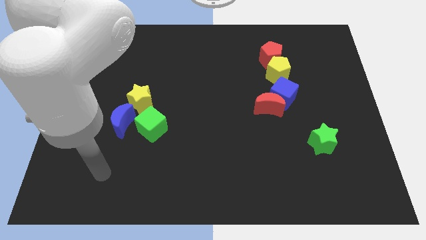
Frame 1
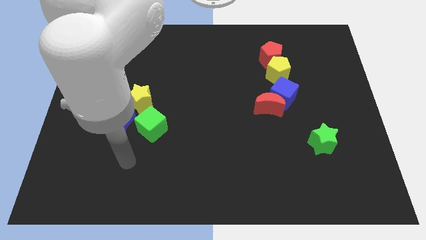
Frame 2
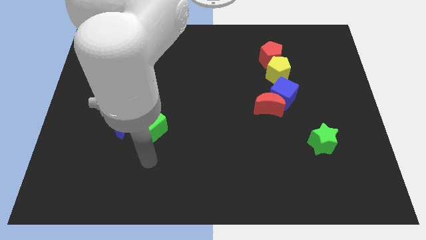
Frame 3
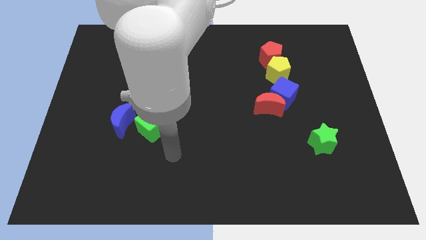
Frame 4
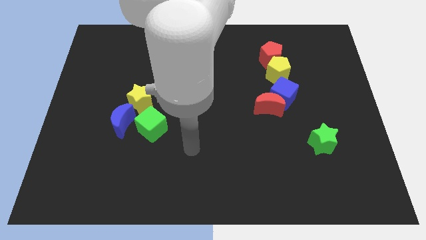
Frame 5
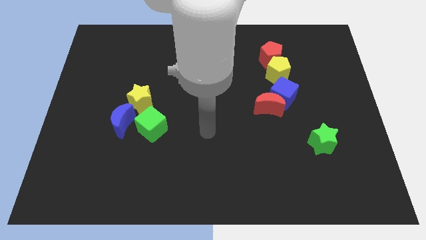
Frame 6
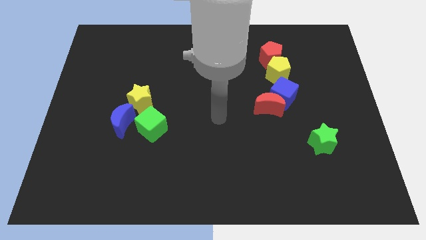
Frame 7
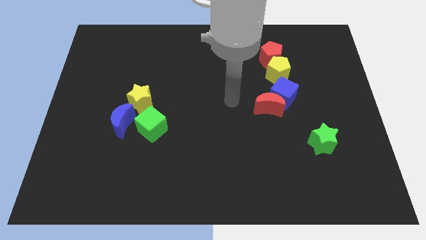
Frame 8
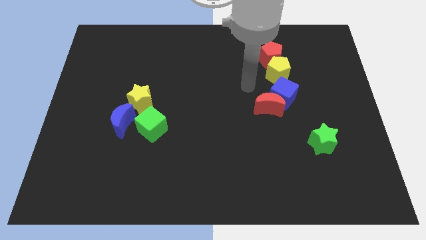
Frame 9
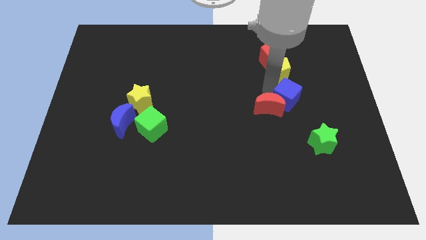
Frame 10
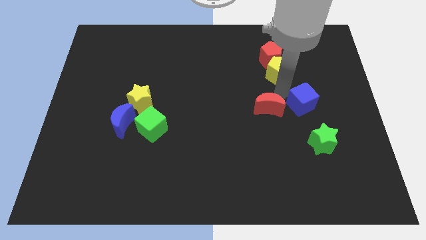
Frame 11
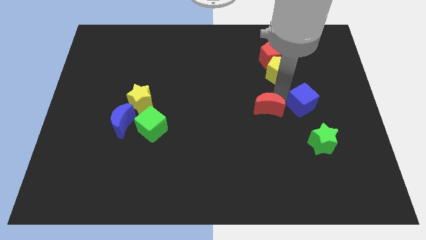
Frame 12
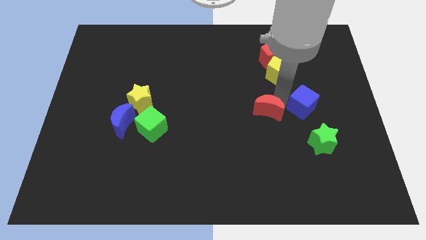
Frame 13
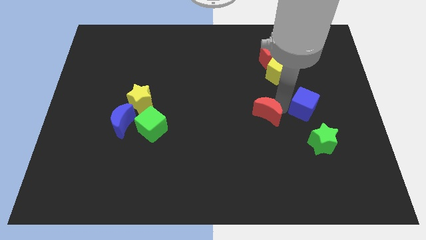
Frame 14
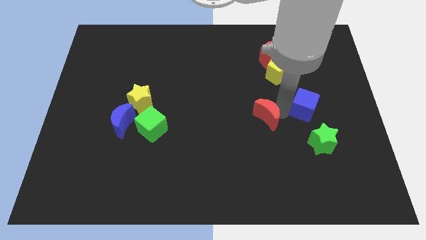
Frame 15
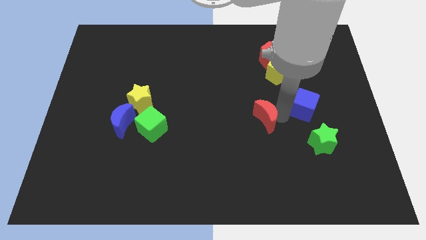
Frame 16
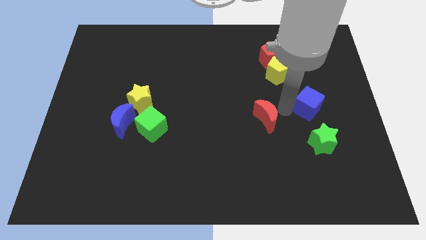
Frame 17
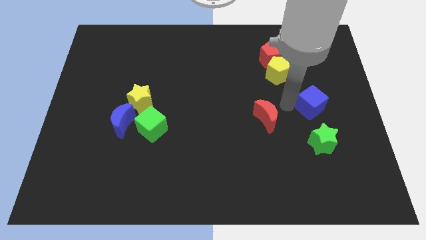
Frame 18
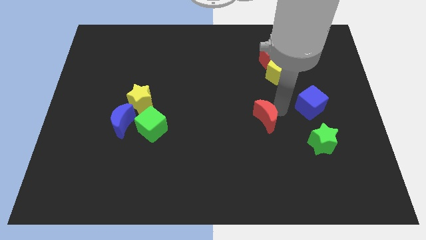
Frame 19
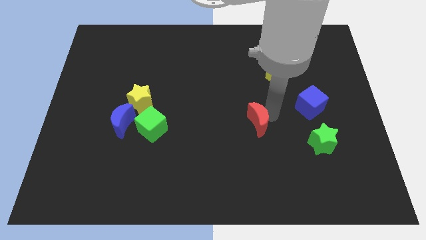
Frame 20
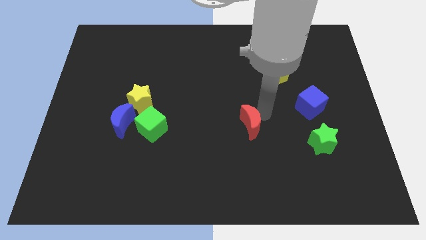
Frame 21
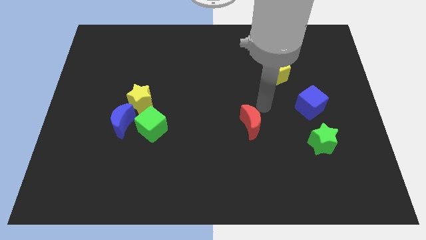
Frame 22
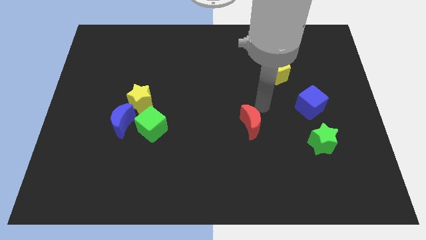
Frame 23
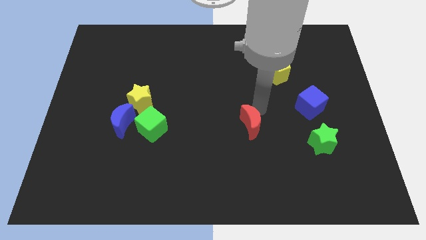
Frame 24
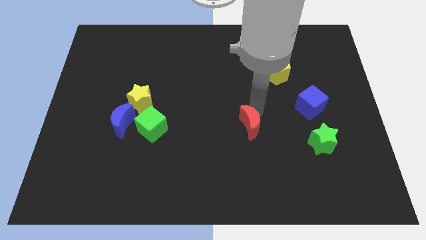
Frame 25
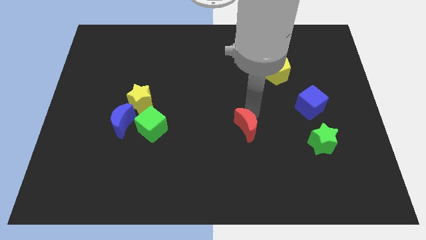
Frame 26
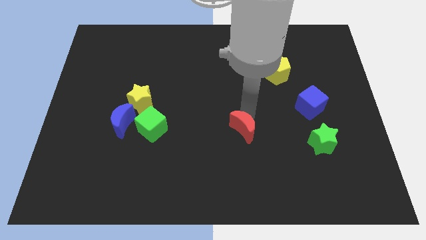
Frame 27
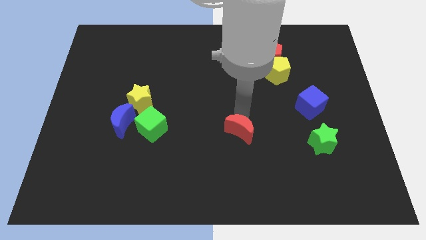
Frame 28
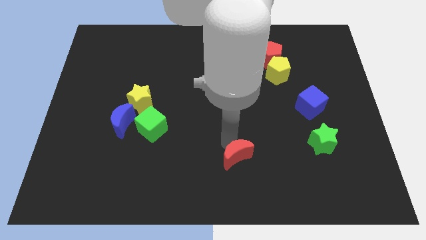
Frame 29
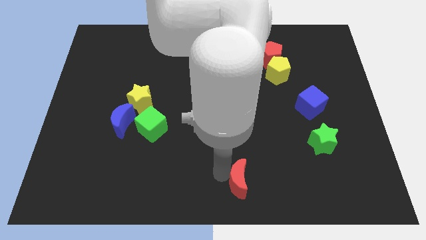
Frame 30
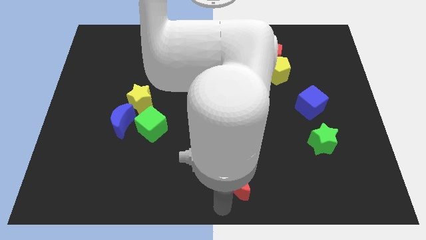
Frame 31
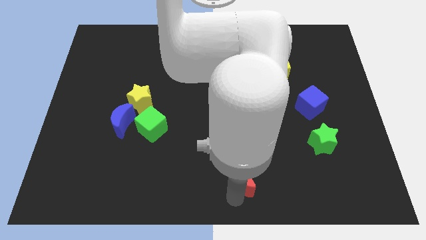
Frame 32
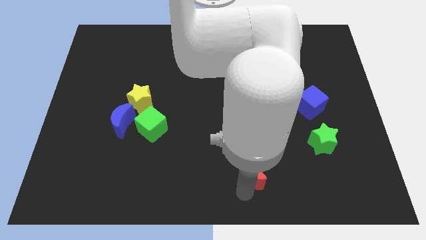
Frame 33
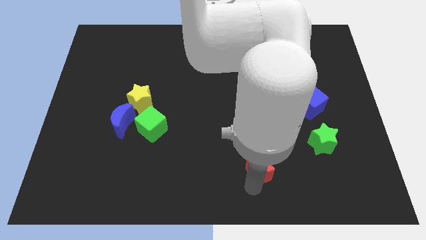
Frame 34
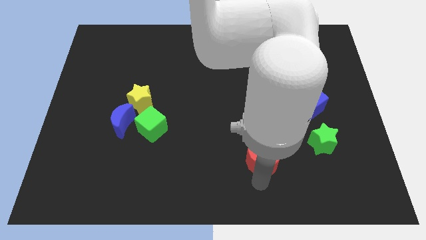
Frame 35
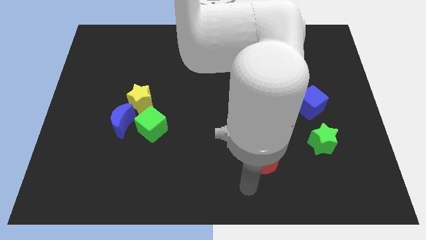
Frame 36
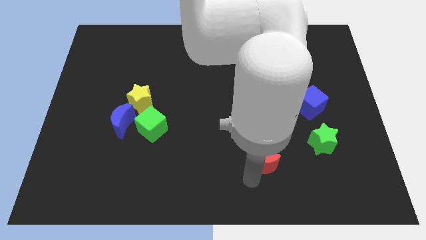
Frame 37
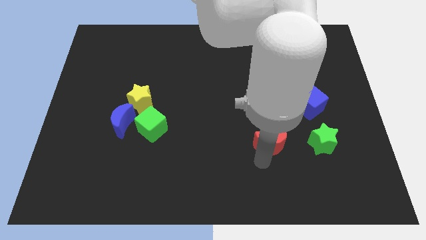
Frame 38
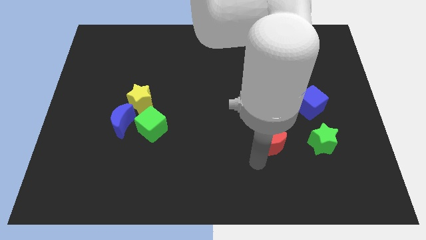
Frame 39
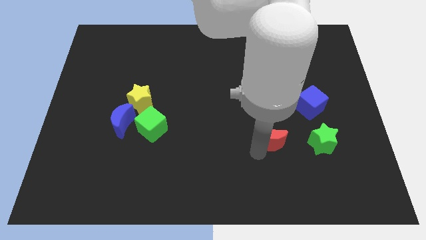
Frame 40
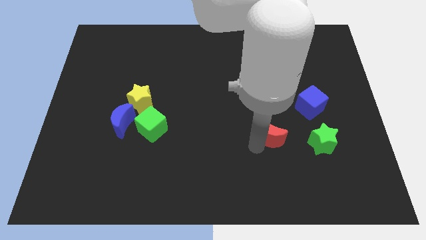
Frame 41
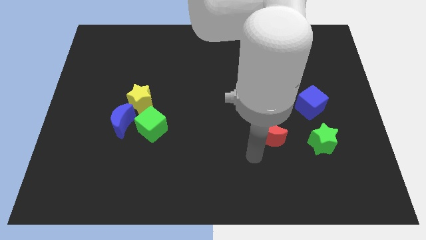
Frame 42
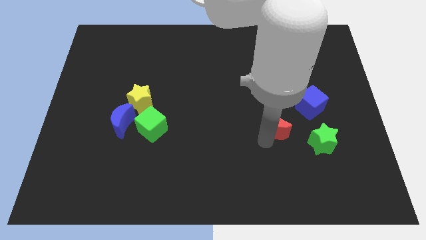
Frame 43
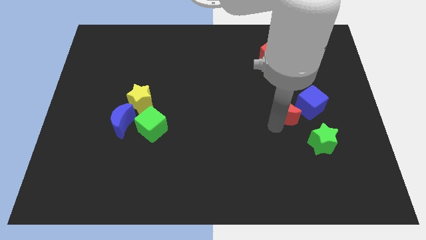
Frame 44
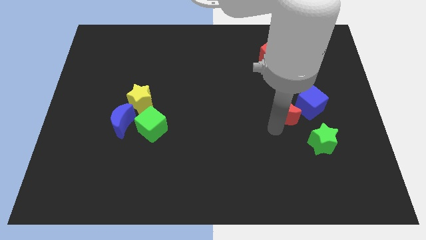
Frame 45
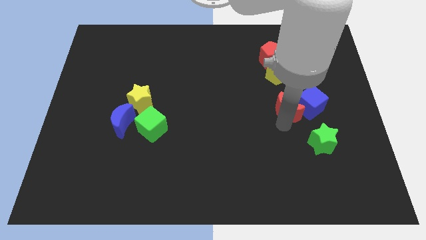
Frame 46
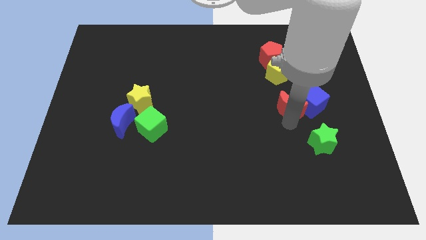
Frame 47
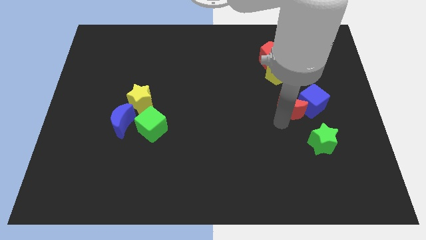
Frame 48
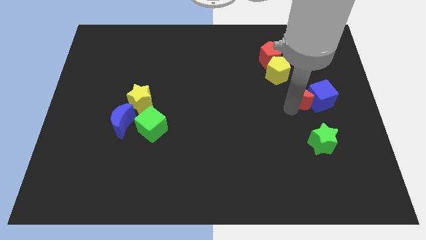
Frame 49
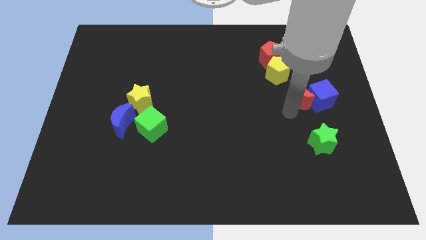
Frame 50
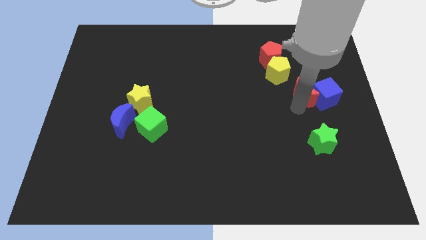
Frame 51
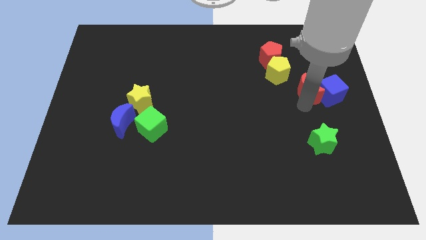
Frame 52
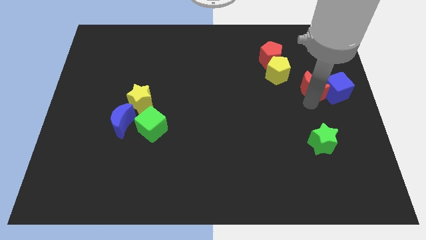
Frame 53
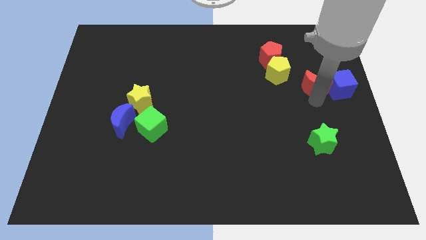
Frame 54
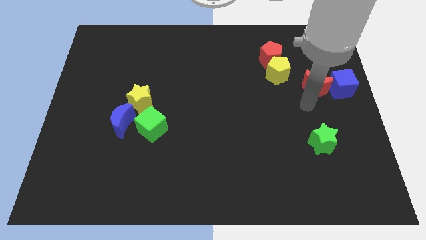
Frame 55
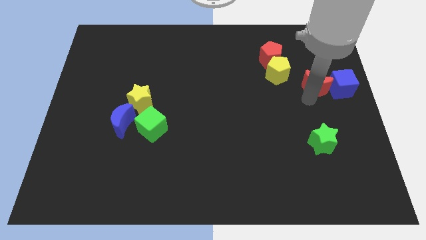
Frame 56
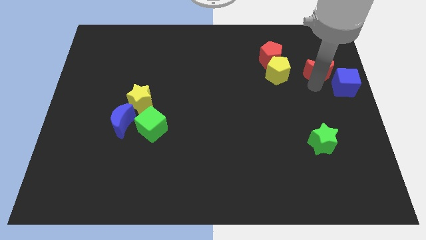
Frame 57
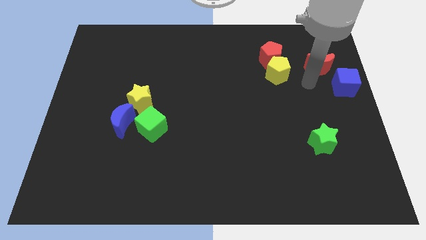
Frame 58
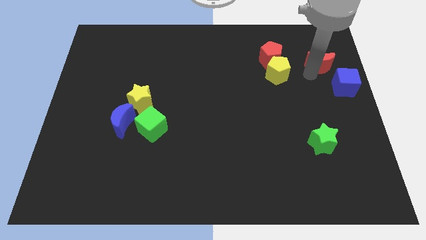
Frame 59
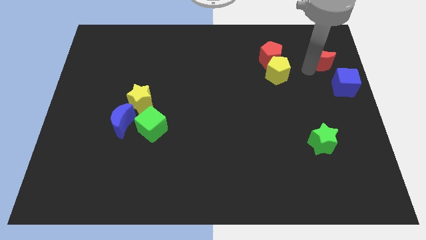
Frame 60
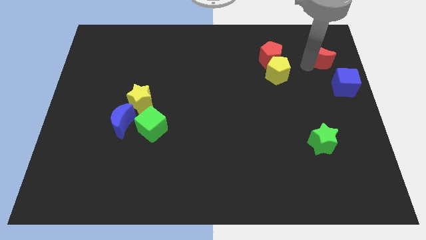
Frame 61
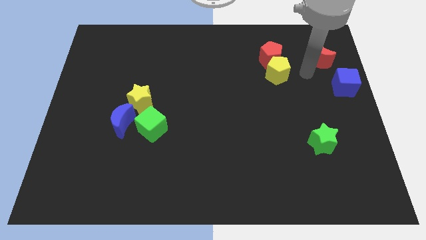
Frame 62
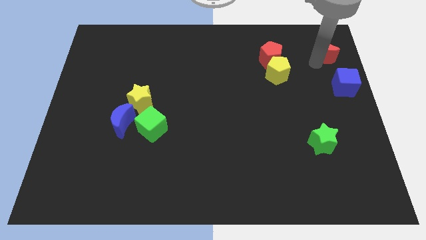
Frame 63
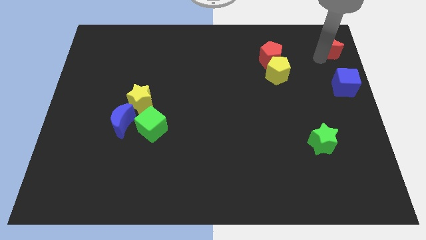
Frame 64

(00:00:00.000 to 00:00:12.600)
put the red moon to the top right corner
